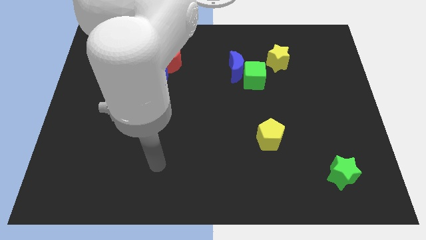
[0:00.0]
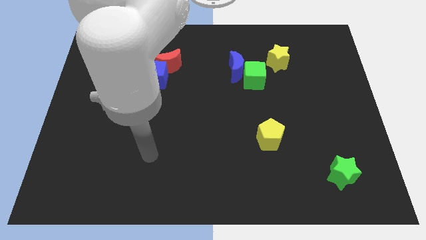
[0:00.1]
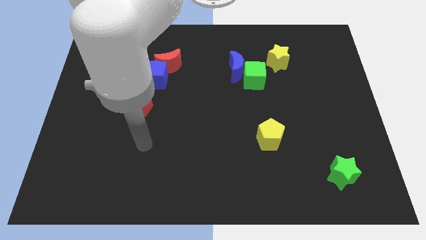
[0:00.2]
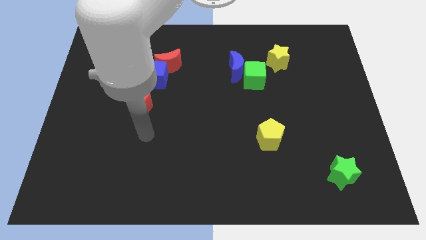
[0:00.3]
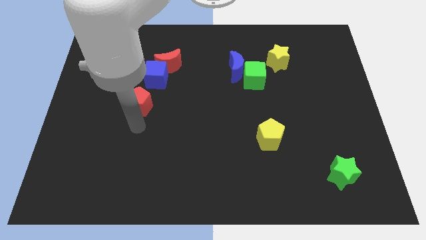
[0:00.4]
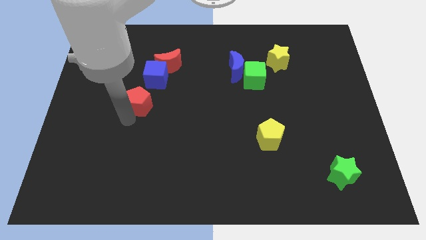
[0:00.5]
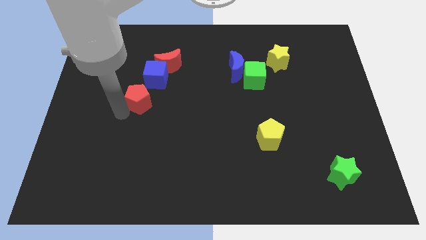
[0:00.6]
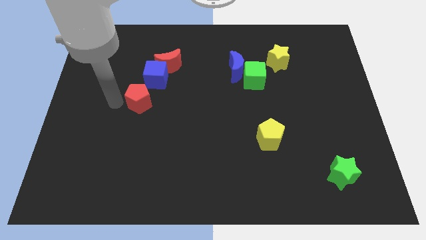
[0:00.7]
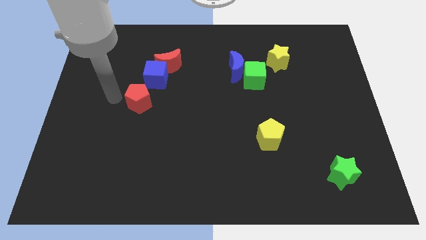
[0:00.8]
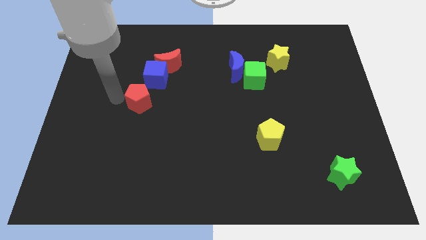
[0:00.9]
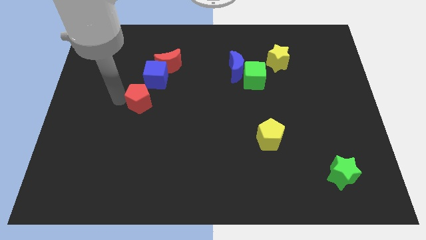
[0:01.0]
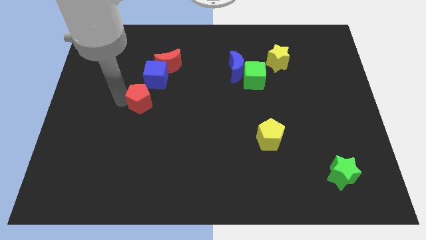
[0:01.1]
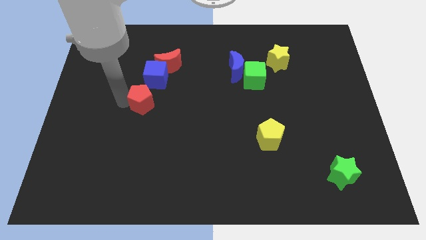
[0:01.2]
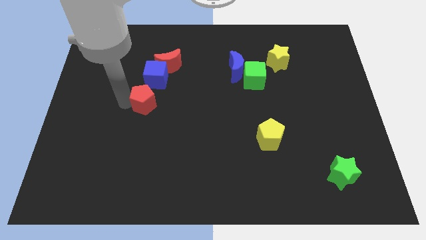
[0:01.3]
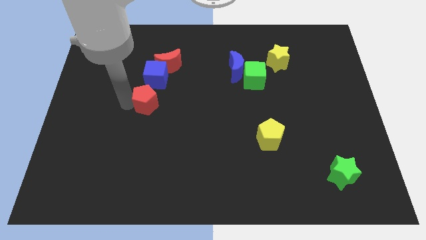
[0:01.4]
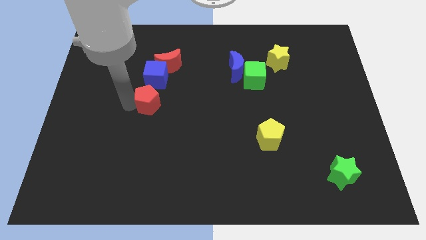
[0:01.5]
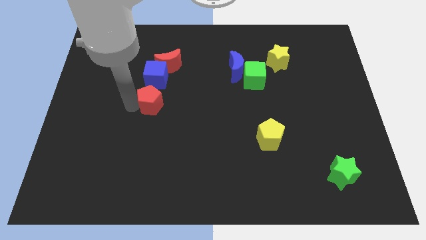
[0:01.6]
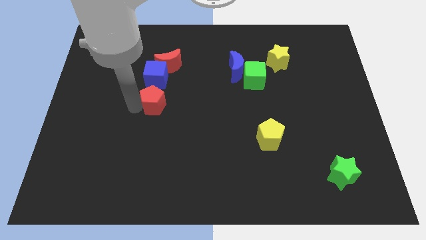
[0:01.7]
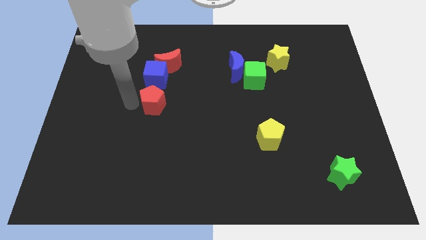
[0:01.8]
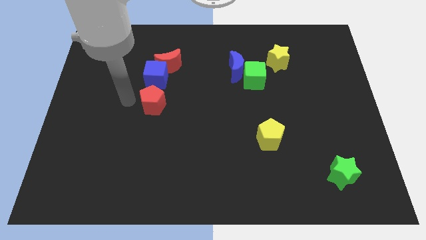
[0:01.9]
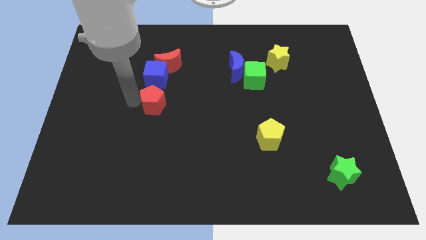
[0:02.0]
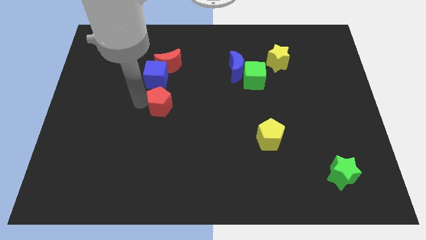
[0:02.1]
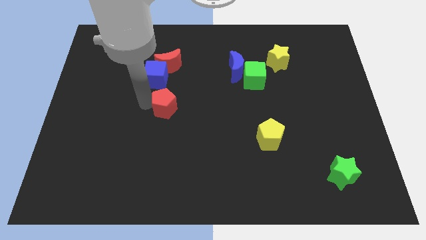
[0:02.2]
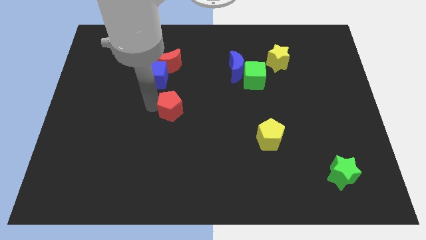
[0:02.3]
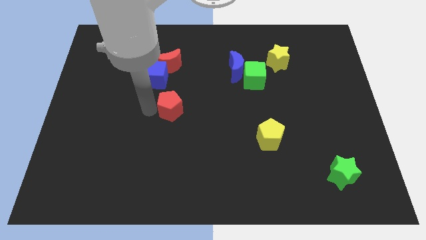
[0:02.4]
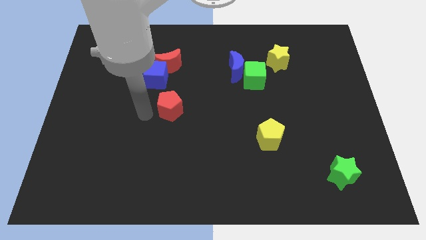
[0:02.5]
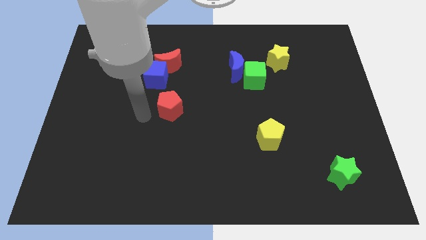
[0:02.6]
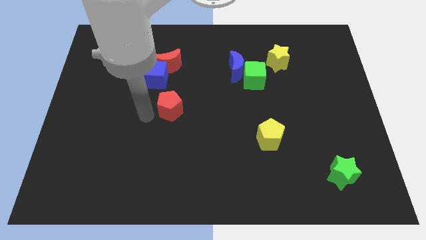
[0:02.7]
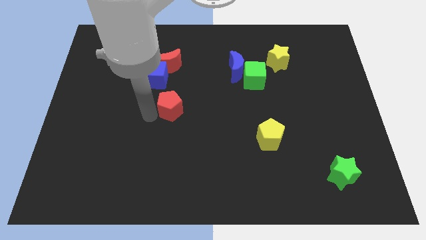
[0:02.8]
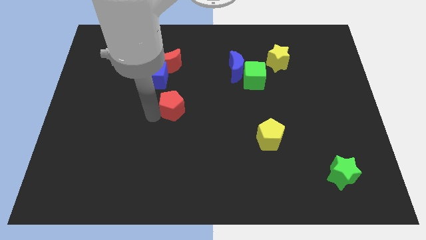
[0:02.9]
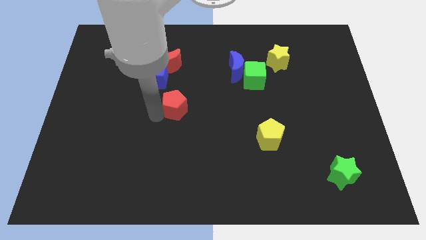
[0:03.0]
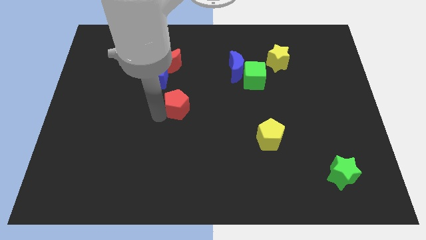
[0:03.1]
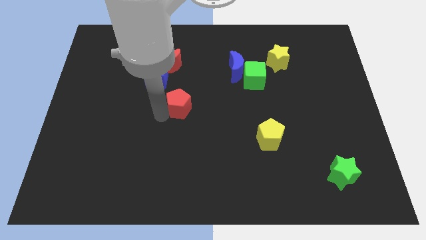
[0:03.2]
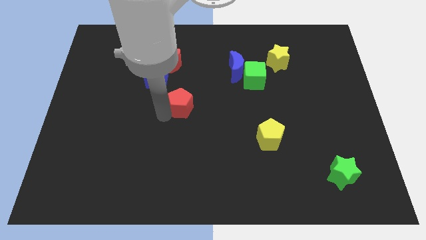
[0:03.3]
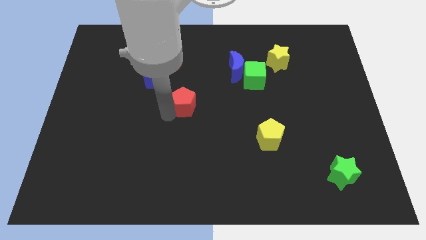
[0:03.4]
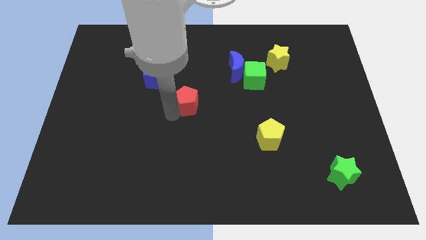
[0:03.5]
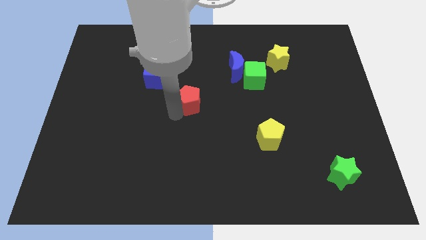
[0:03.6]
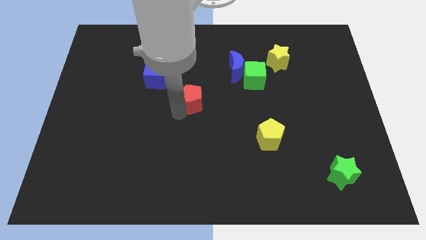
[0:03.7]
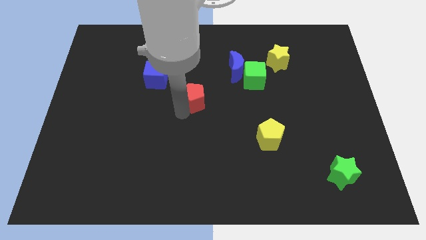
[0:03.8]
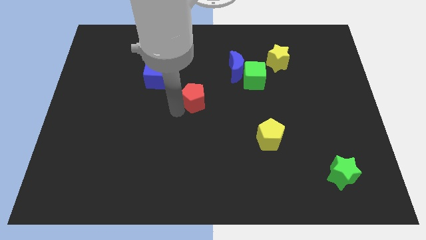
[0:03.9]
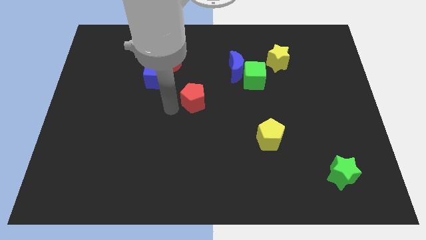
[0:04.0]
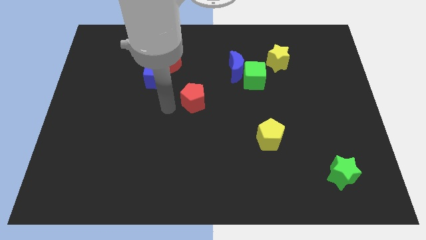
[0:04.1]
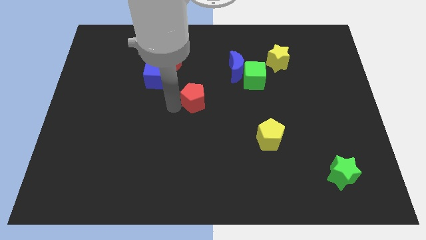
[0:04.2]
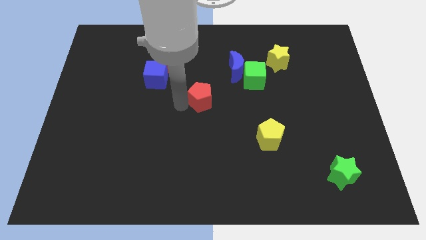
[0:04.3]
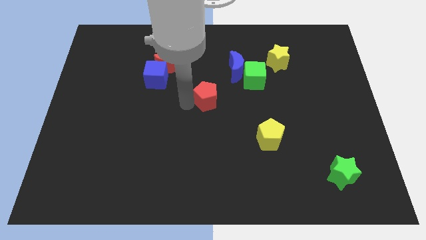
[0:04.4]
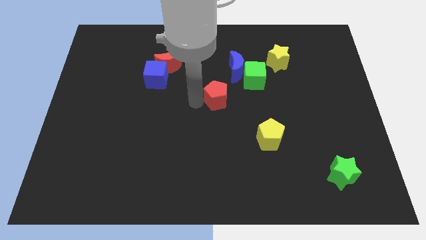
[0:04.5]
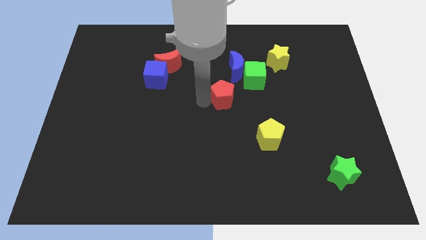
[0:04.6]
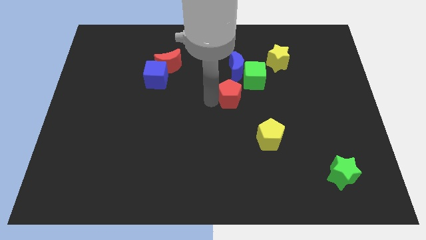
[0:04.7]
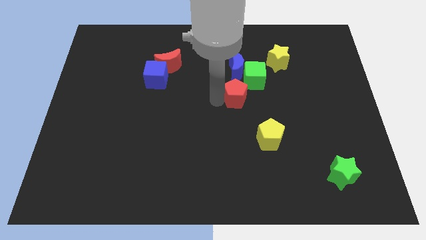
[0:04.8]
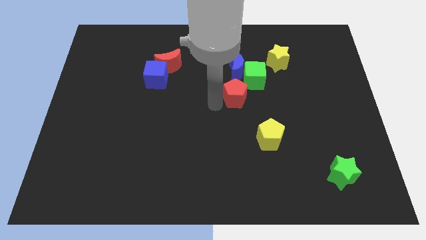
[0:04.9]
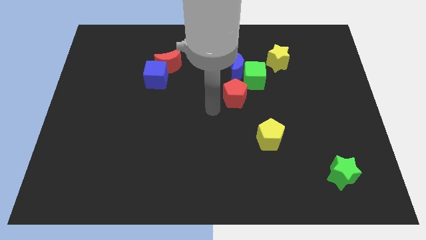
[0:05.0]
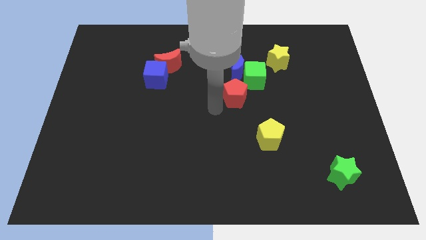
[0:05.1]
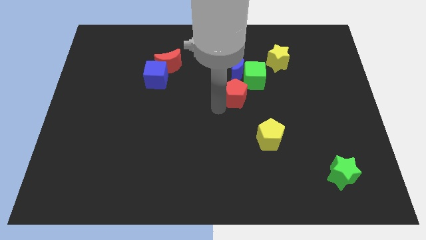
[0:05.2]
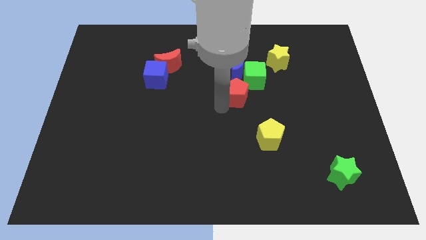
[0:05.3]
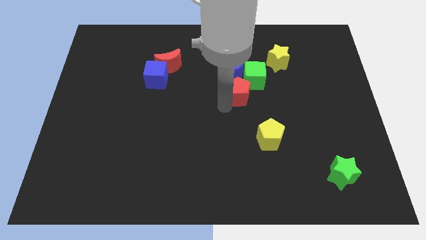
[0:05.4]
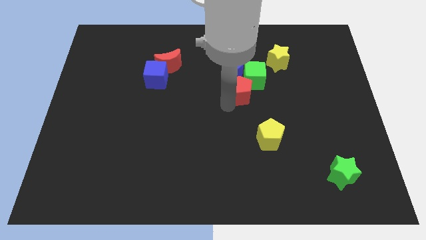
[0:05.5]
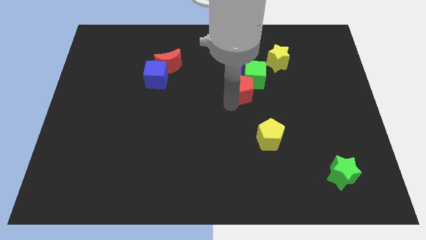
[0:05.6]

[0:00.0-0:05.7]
push the red pentagon to the bottom right of the blue moon

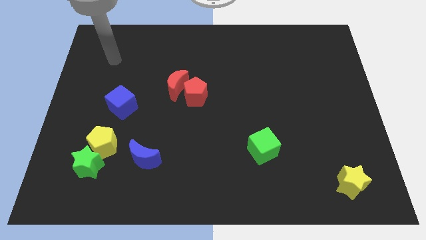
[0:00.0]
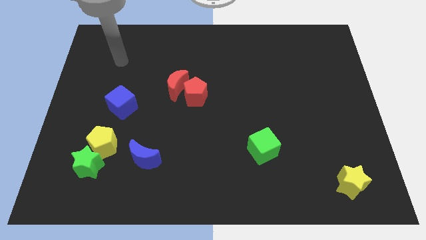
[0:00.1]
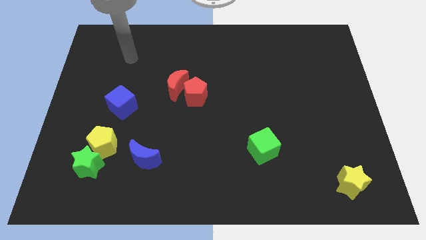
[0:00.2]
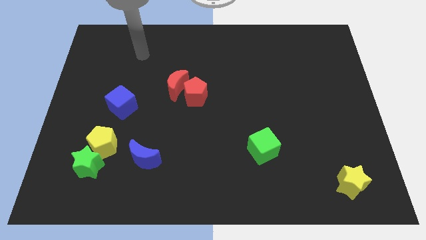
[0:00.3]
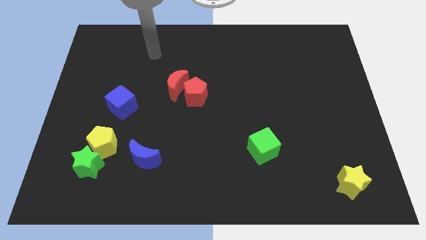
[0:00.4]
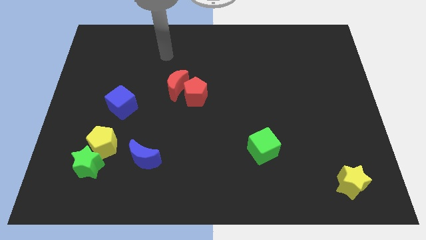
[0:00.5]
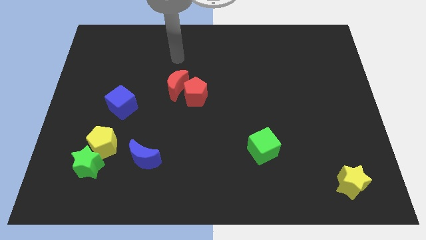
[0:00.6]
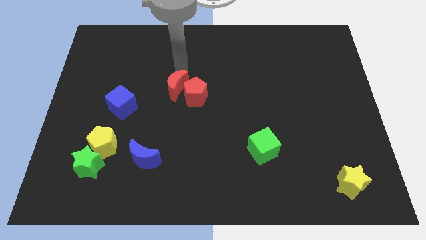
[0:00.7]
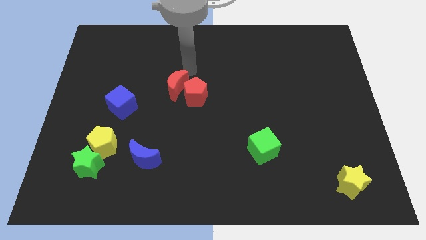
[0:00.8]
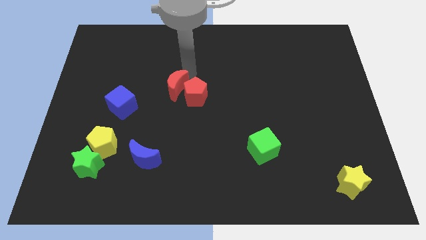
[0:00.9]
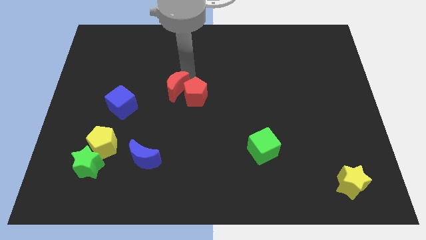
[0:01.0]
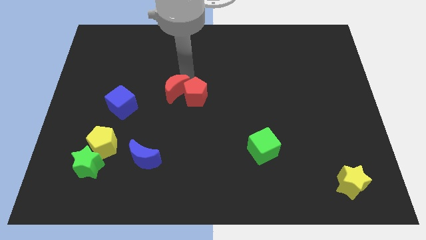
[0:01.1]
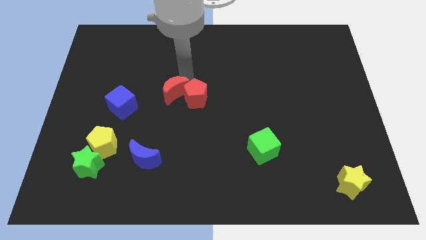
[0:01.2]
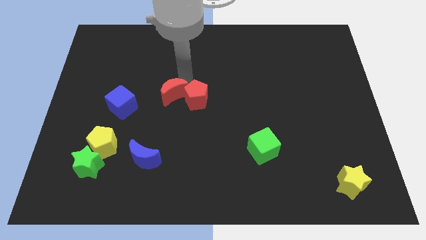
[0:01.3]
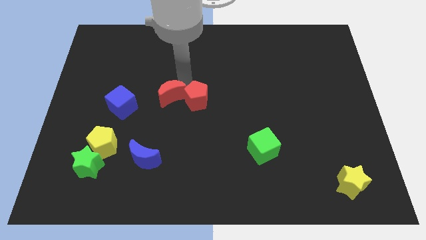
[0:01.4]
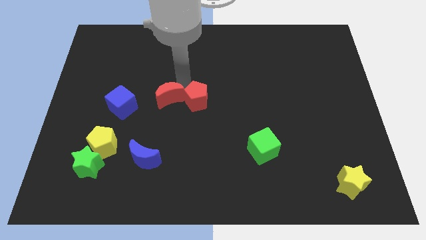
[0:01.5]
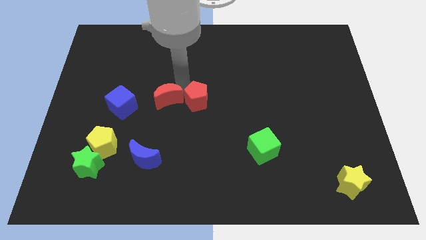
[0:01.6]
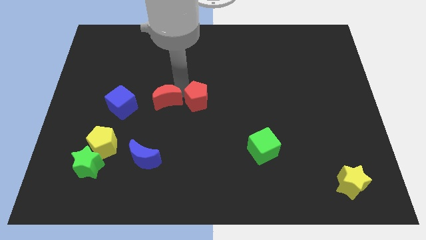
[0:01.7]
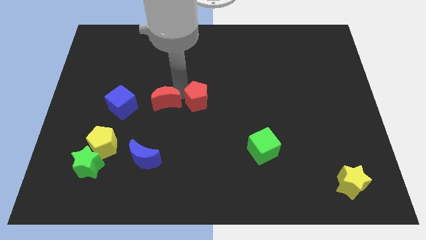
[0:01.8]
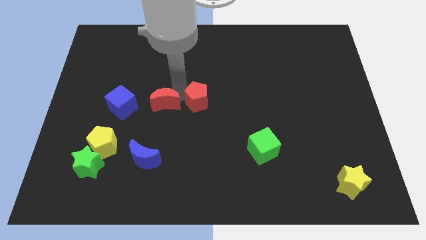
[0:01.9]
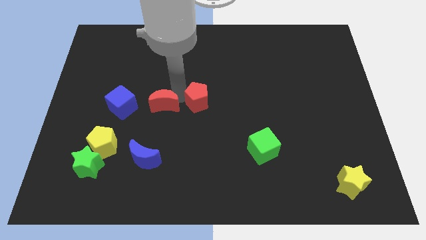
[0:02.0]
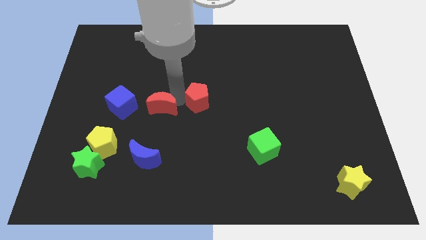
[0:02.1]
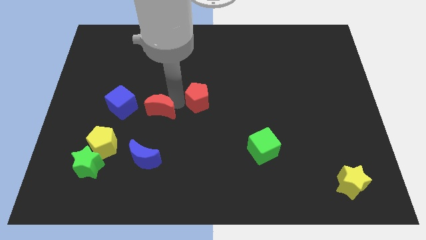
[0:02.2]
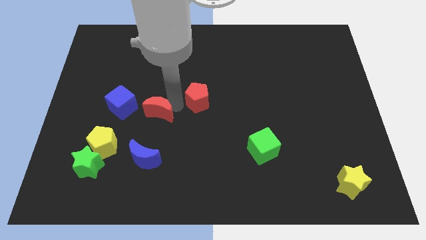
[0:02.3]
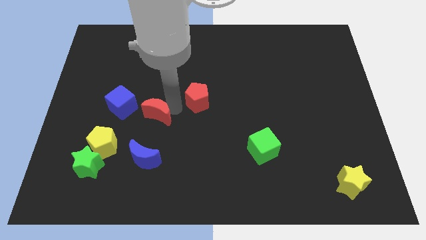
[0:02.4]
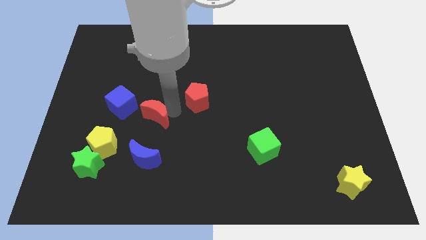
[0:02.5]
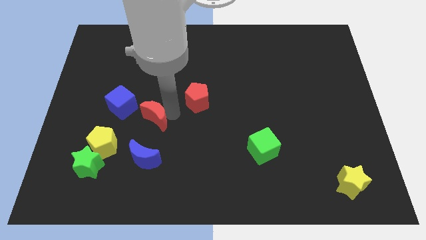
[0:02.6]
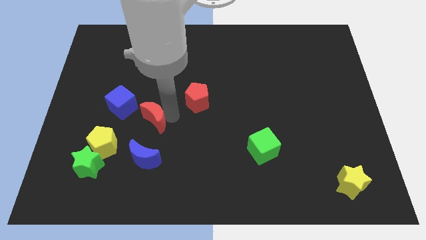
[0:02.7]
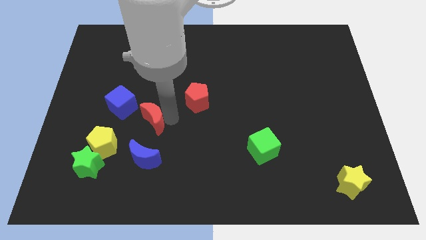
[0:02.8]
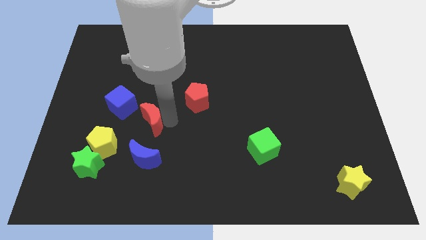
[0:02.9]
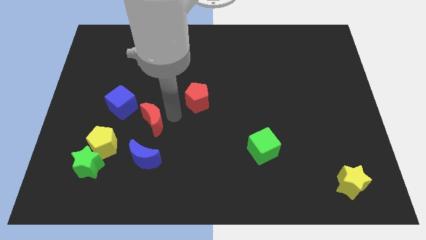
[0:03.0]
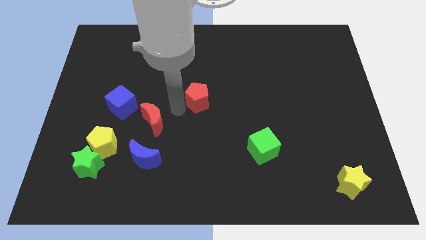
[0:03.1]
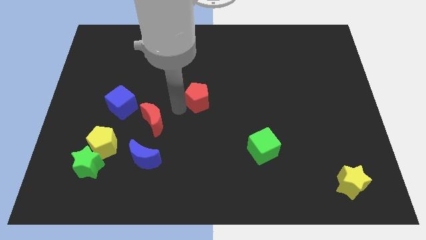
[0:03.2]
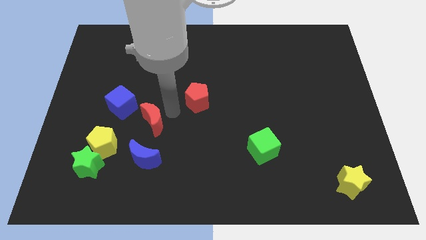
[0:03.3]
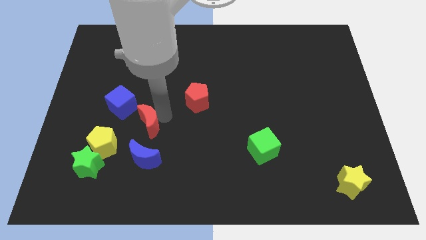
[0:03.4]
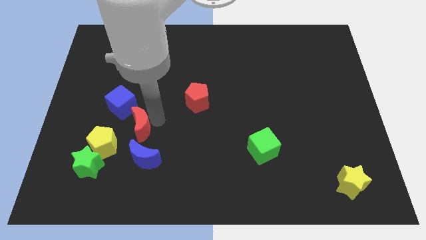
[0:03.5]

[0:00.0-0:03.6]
move the red moon diagonally up and to the left of the blue moon
